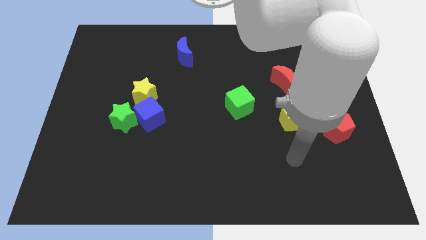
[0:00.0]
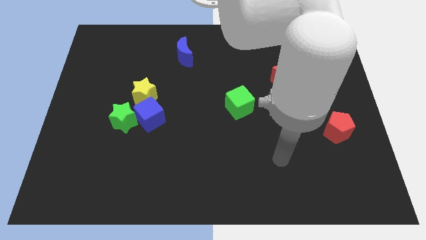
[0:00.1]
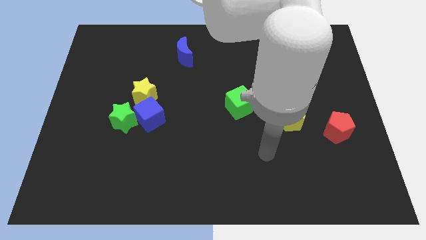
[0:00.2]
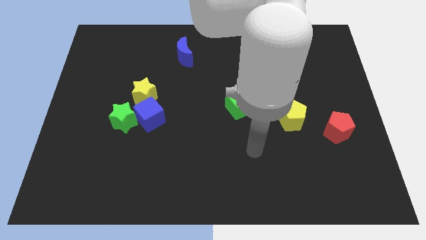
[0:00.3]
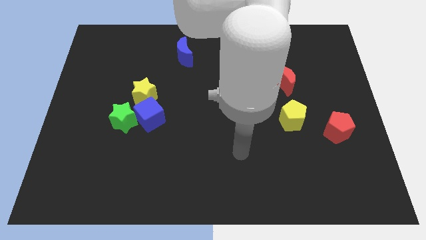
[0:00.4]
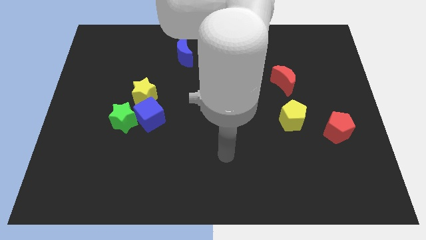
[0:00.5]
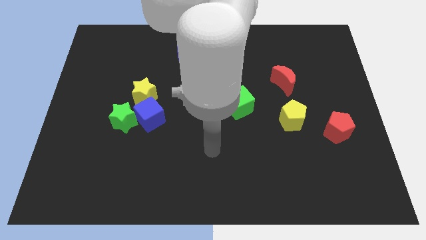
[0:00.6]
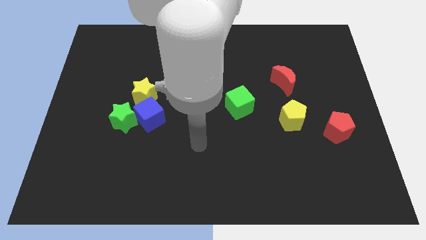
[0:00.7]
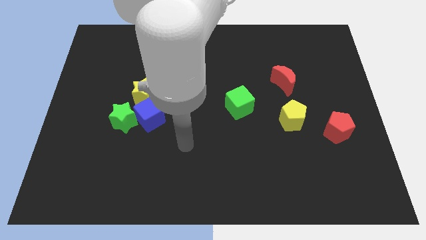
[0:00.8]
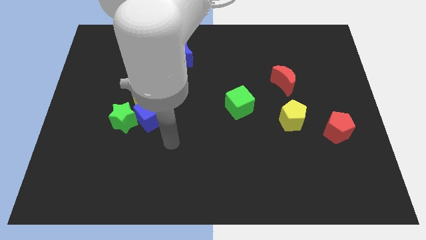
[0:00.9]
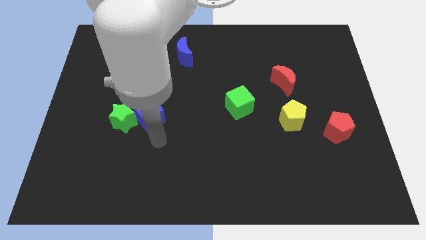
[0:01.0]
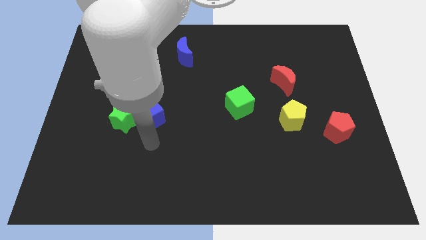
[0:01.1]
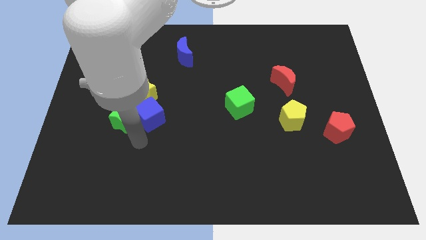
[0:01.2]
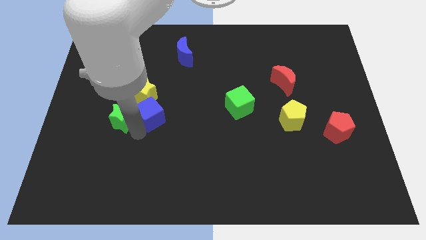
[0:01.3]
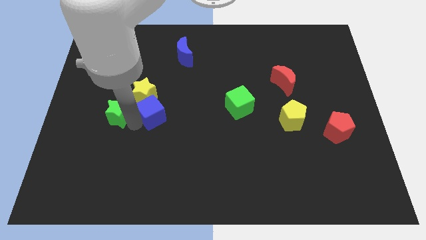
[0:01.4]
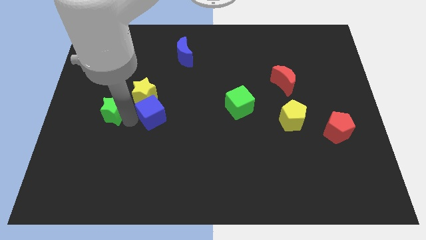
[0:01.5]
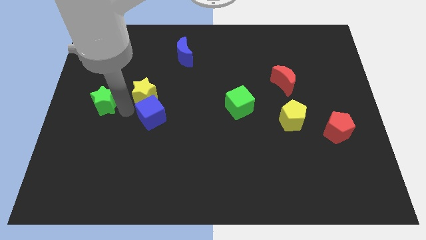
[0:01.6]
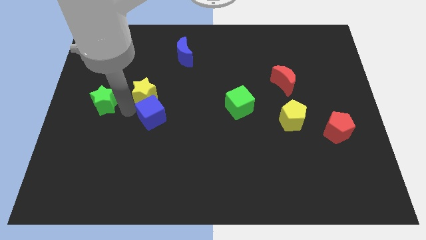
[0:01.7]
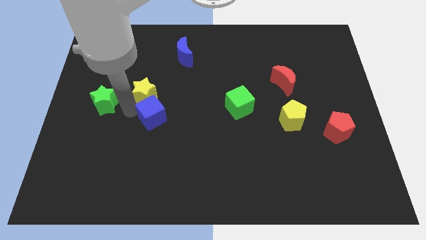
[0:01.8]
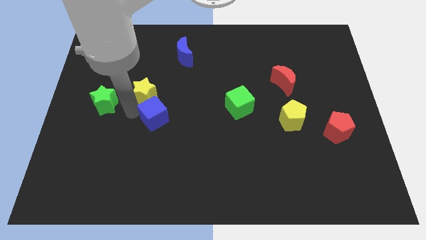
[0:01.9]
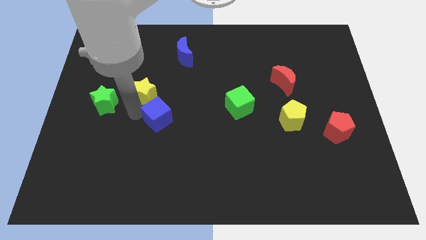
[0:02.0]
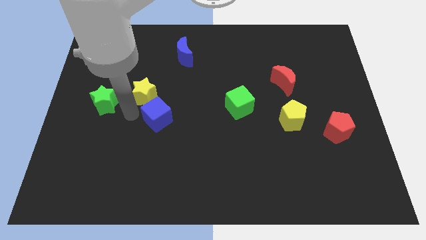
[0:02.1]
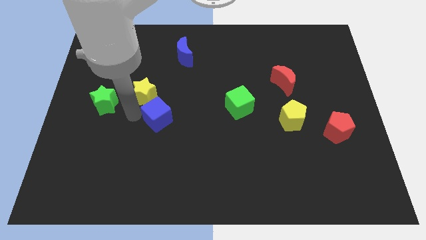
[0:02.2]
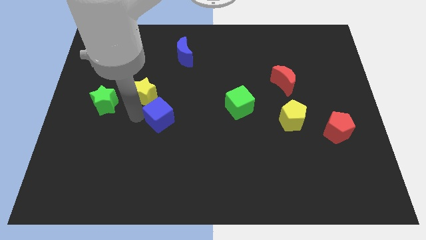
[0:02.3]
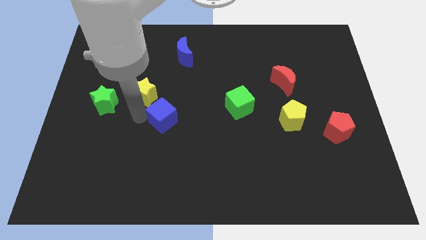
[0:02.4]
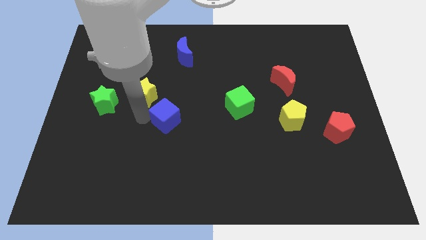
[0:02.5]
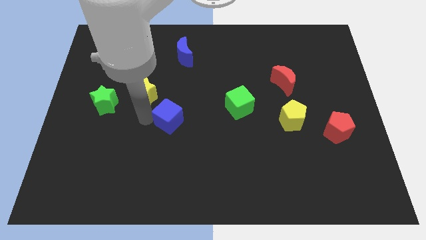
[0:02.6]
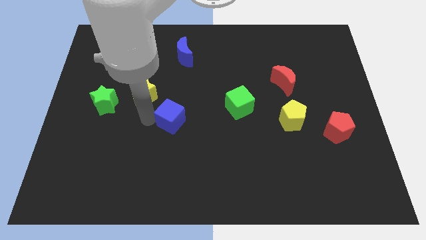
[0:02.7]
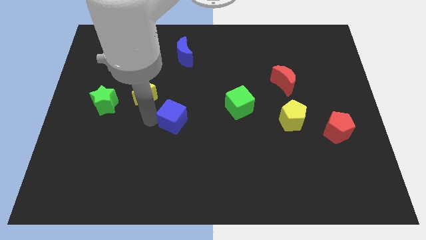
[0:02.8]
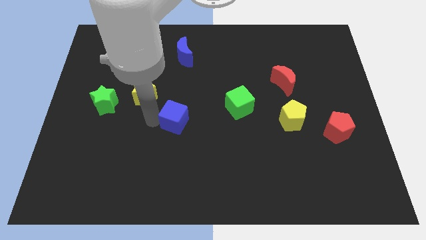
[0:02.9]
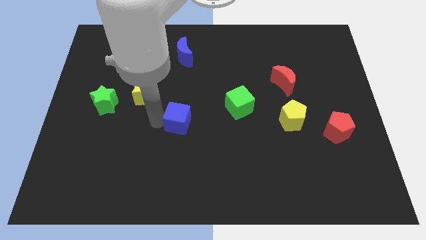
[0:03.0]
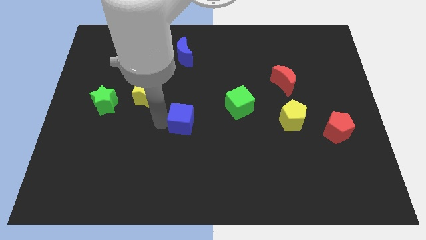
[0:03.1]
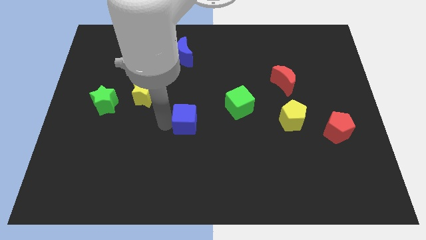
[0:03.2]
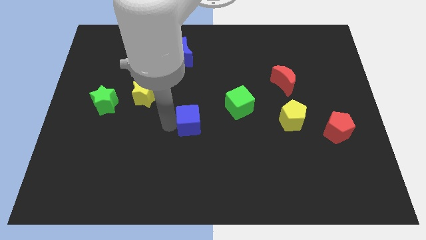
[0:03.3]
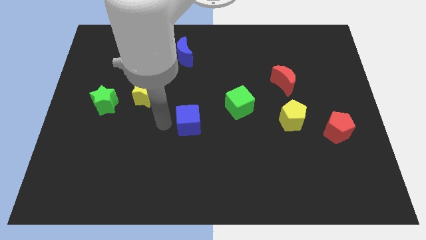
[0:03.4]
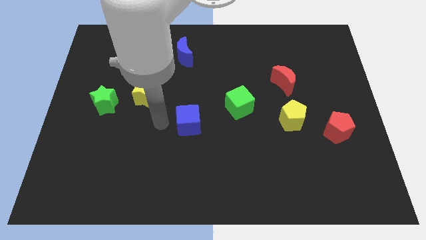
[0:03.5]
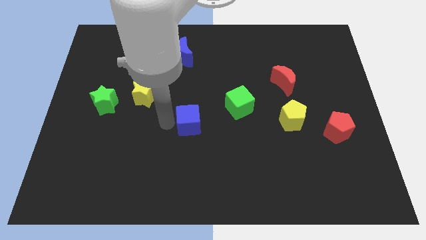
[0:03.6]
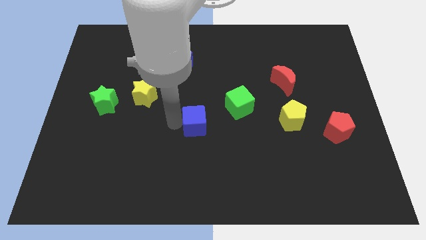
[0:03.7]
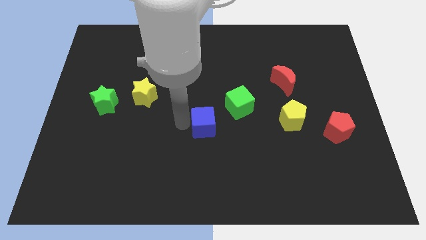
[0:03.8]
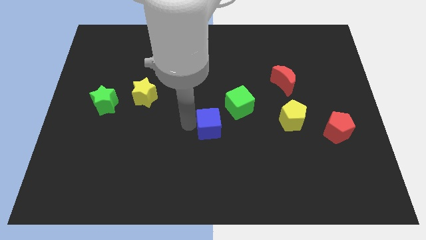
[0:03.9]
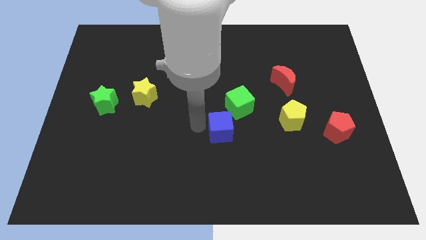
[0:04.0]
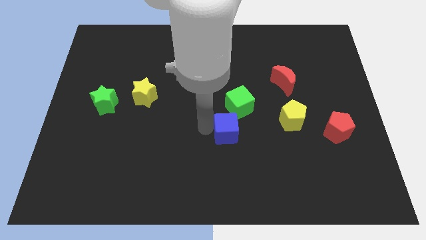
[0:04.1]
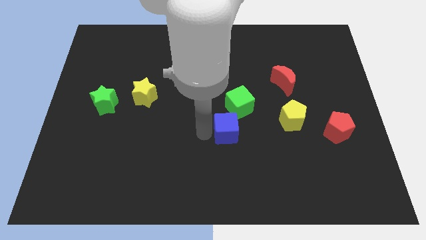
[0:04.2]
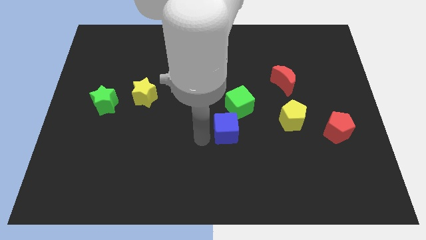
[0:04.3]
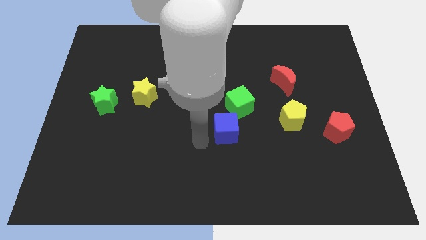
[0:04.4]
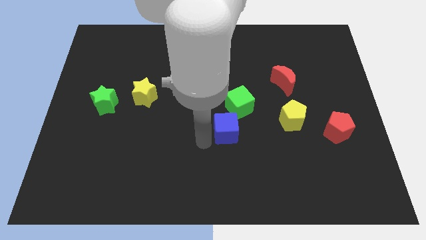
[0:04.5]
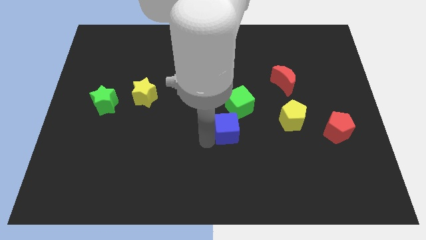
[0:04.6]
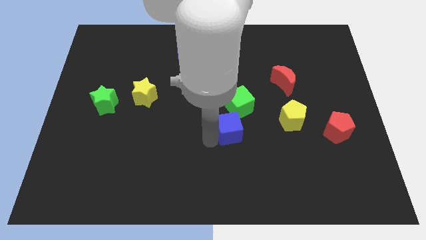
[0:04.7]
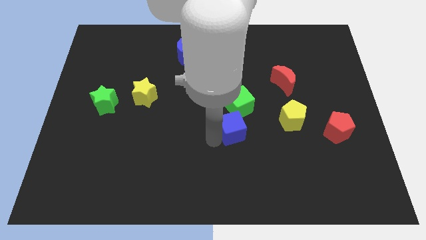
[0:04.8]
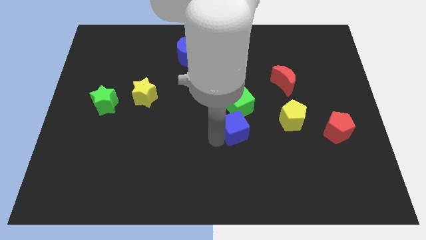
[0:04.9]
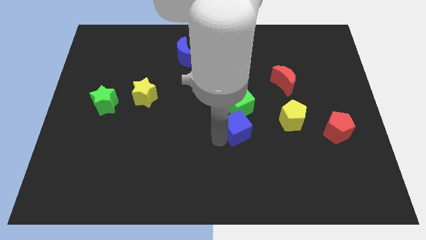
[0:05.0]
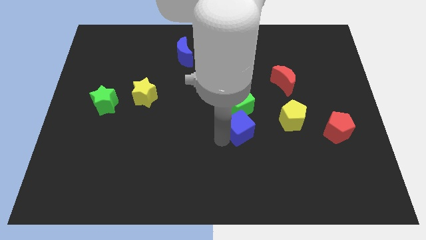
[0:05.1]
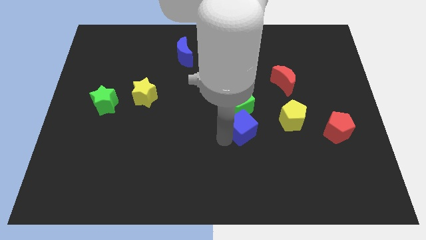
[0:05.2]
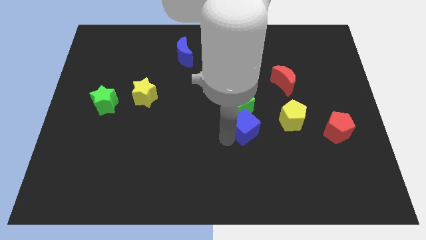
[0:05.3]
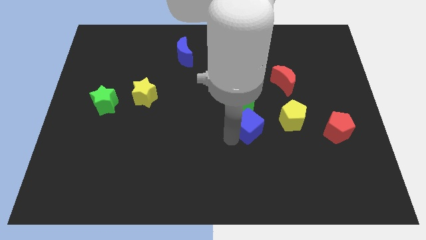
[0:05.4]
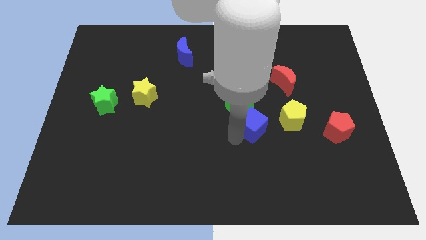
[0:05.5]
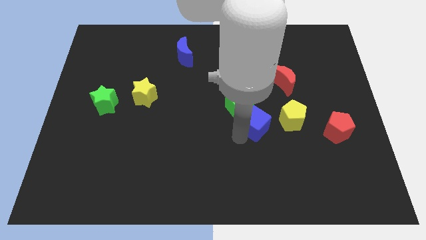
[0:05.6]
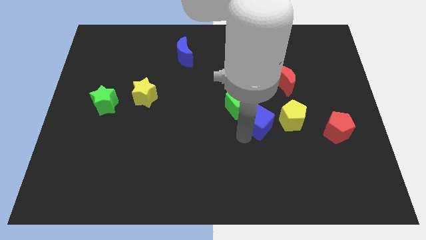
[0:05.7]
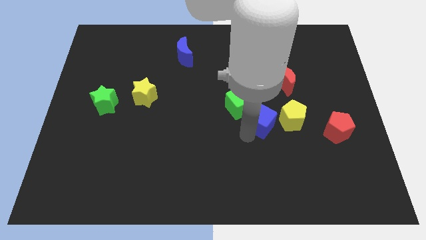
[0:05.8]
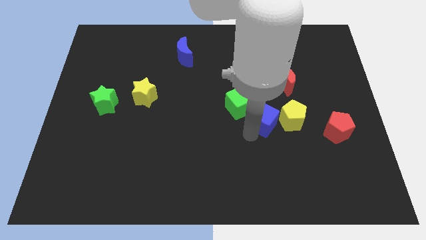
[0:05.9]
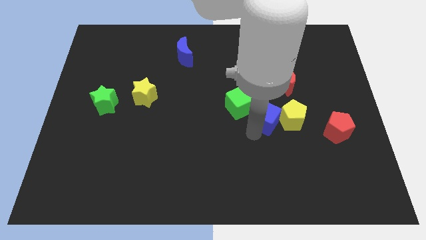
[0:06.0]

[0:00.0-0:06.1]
push the blue cube to the top left side of the yellow pentagon
